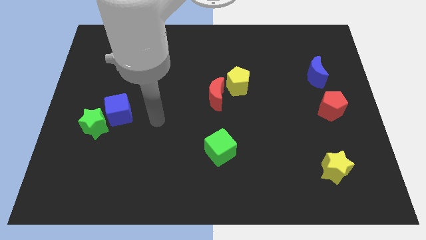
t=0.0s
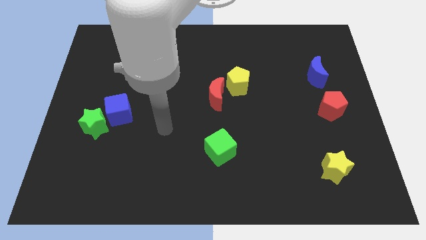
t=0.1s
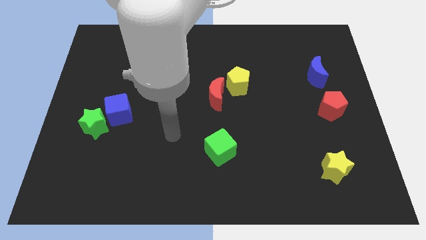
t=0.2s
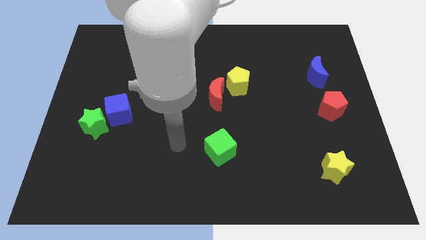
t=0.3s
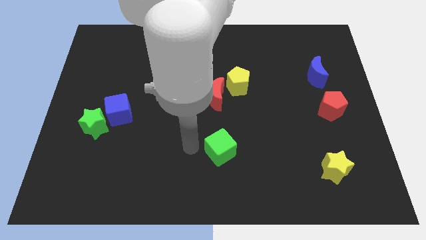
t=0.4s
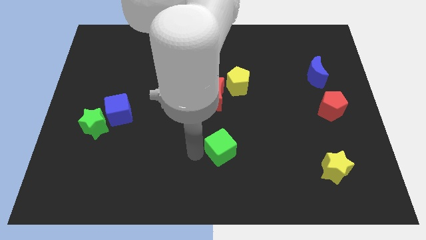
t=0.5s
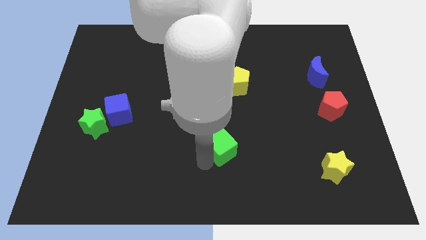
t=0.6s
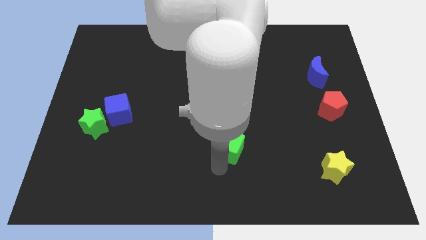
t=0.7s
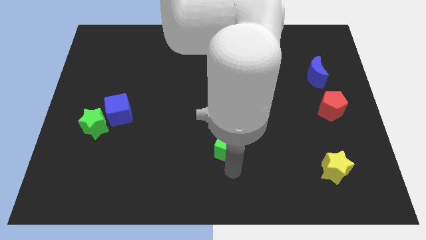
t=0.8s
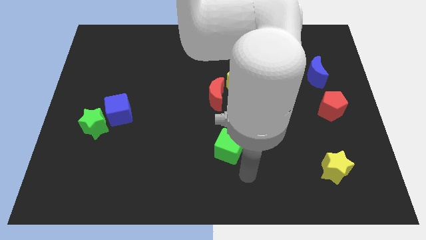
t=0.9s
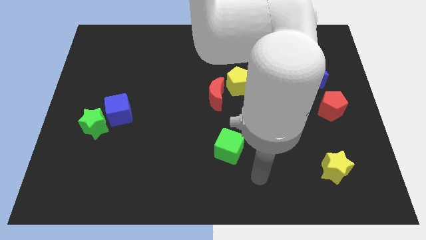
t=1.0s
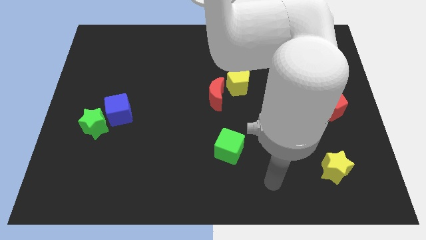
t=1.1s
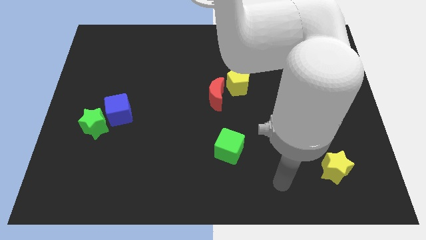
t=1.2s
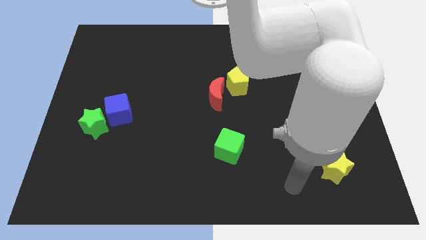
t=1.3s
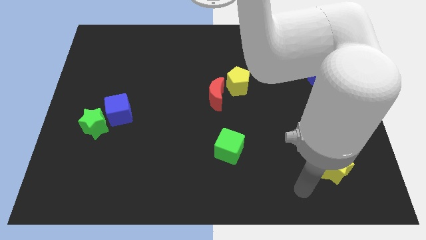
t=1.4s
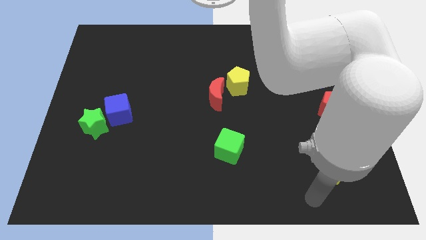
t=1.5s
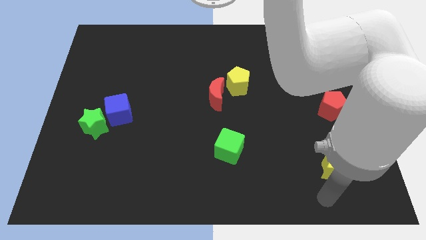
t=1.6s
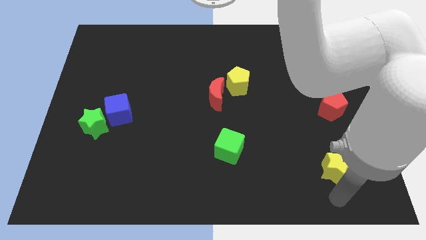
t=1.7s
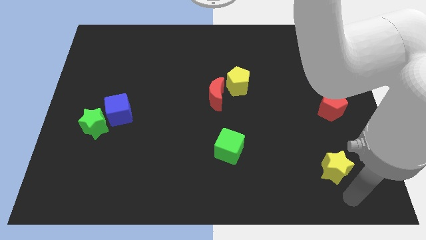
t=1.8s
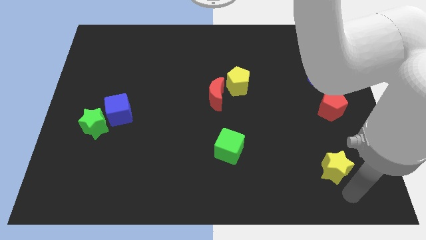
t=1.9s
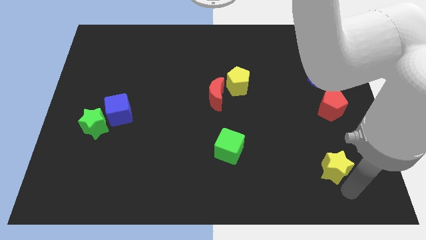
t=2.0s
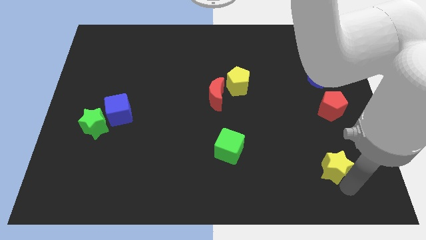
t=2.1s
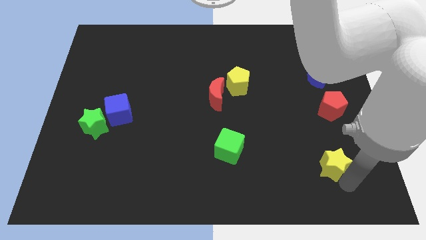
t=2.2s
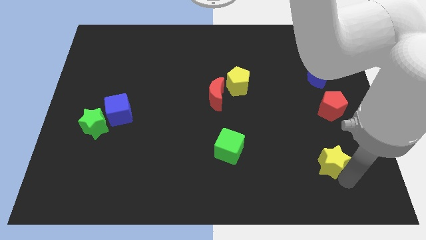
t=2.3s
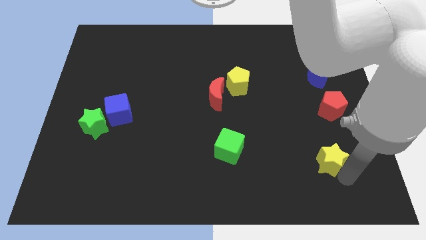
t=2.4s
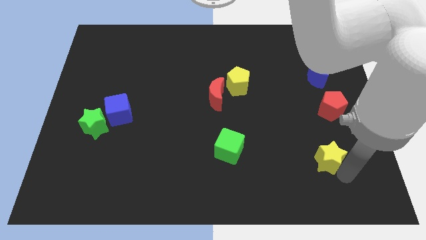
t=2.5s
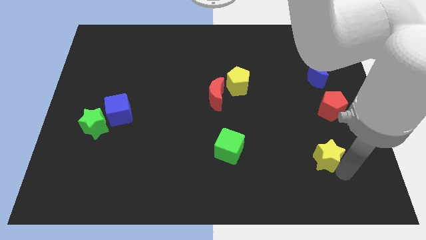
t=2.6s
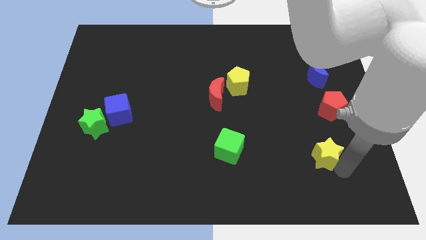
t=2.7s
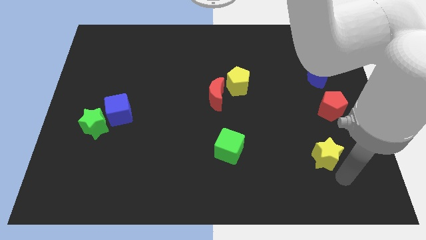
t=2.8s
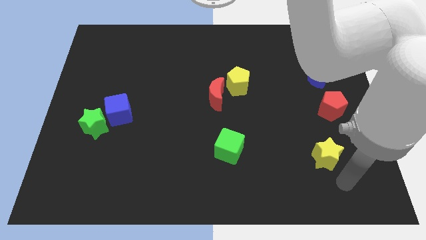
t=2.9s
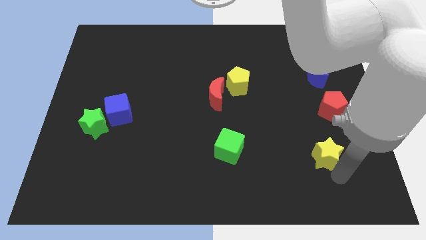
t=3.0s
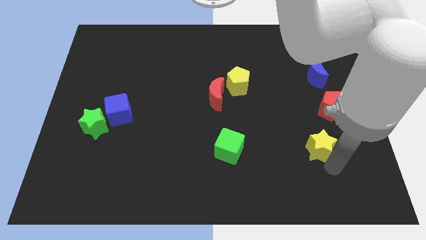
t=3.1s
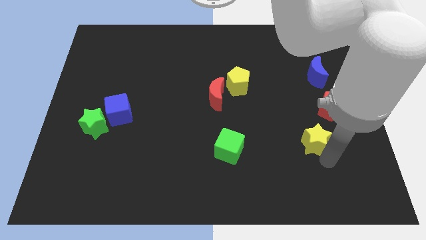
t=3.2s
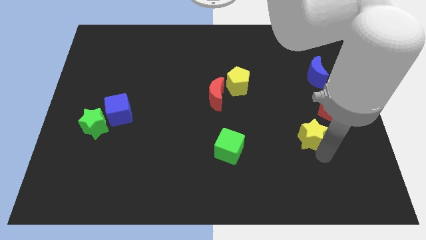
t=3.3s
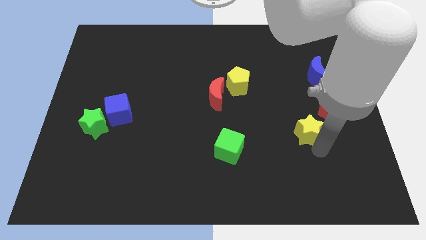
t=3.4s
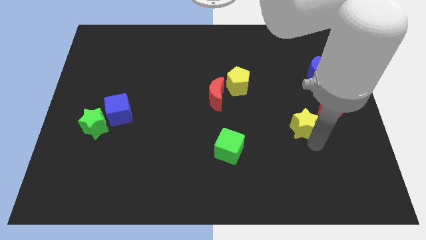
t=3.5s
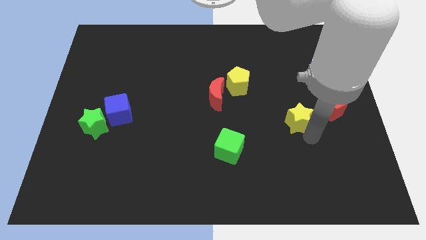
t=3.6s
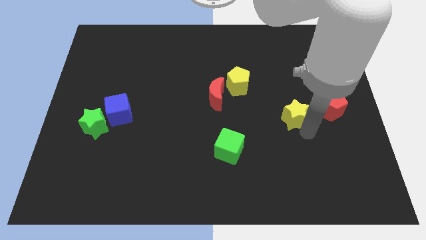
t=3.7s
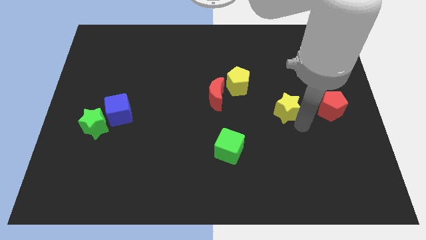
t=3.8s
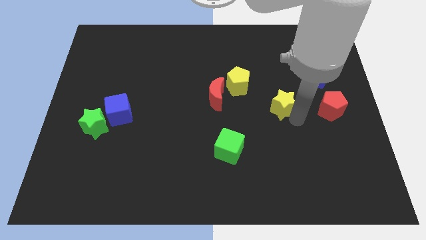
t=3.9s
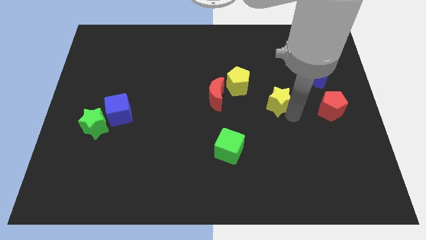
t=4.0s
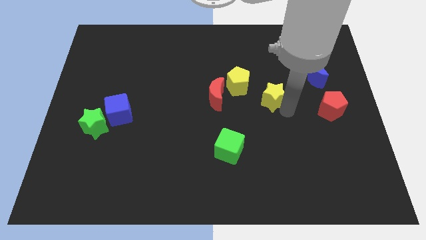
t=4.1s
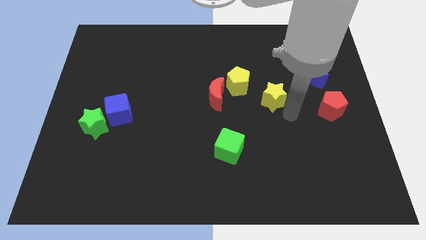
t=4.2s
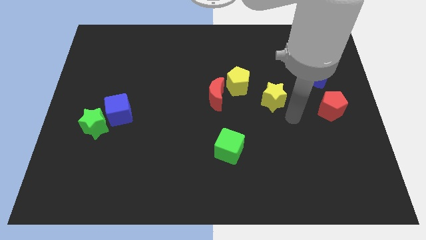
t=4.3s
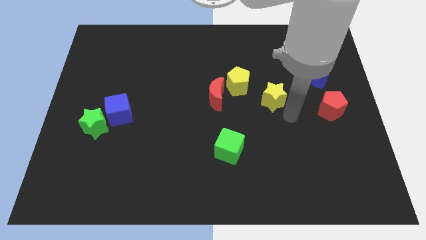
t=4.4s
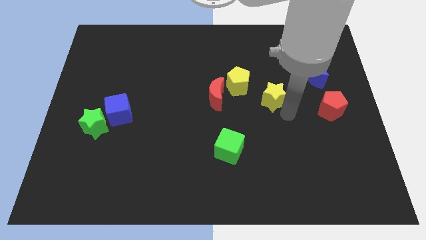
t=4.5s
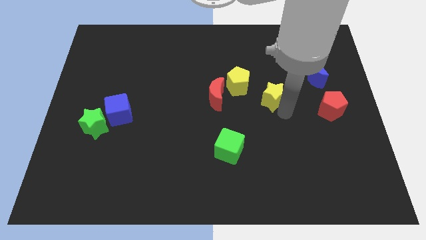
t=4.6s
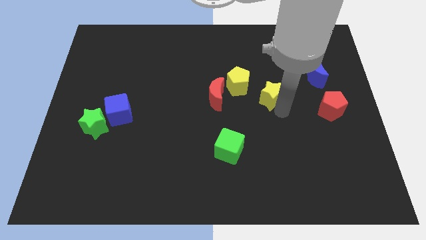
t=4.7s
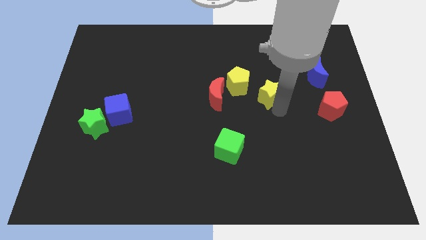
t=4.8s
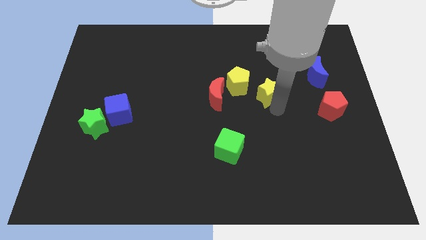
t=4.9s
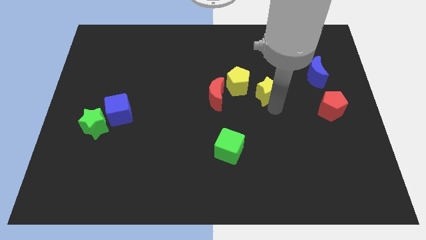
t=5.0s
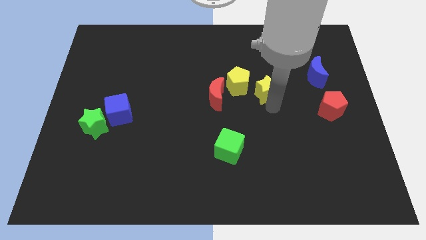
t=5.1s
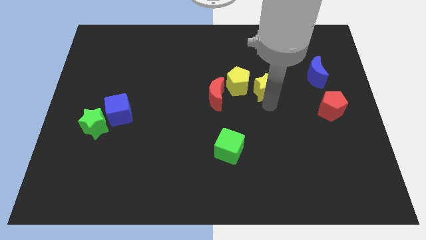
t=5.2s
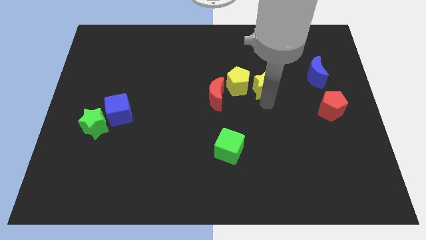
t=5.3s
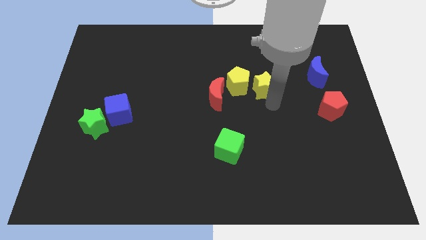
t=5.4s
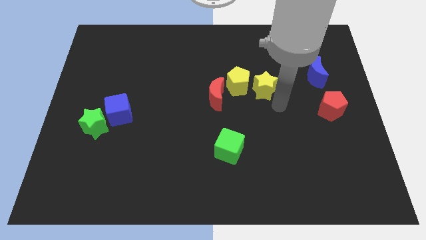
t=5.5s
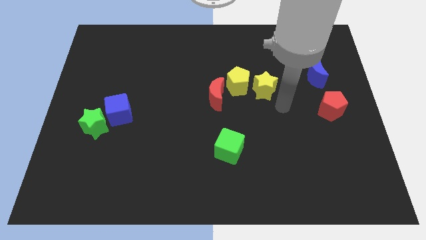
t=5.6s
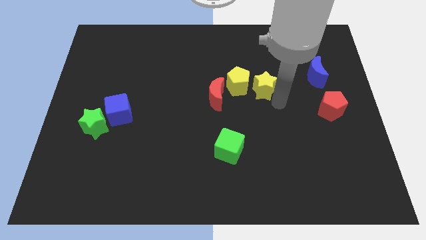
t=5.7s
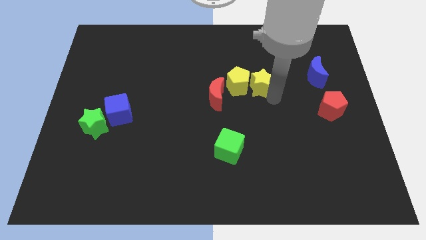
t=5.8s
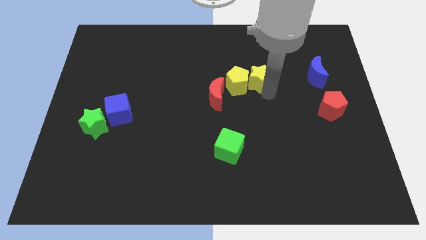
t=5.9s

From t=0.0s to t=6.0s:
slide the yellow star to the top right side of the red moon
